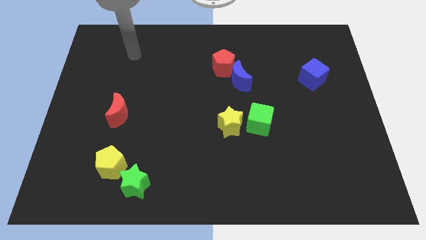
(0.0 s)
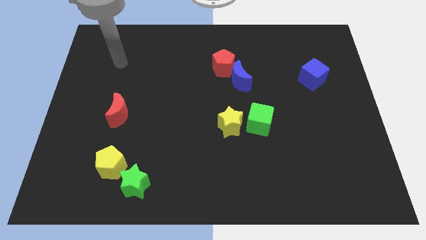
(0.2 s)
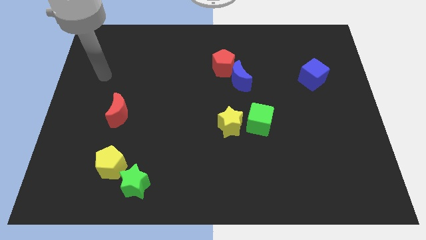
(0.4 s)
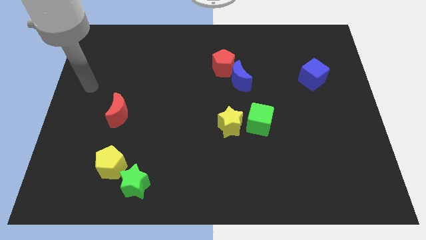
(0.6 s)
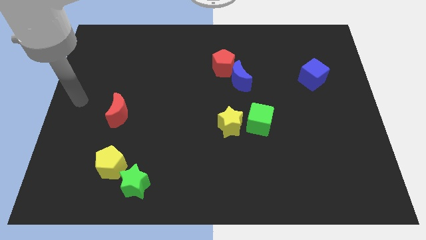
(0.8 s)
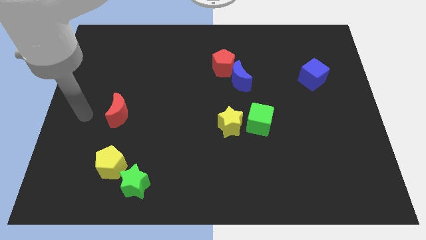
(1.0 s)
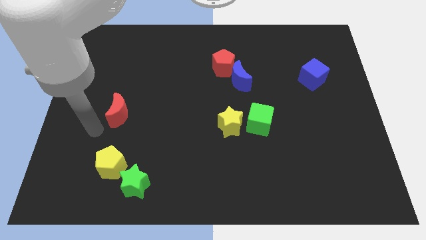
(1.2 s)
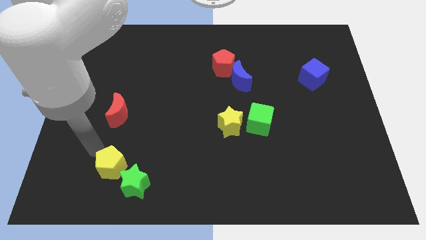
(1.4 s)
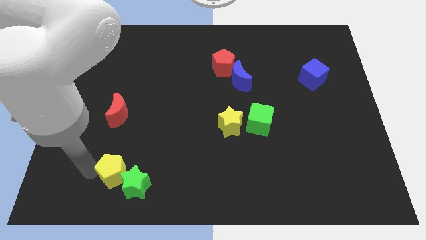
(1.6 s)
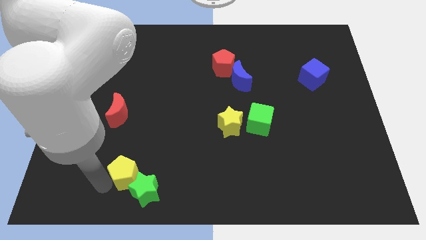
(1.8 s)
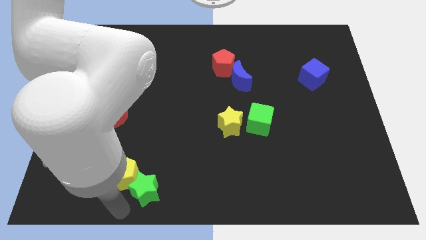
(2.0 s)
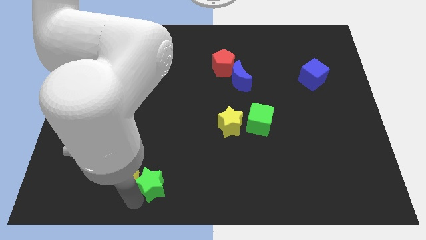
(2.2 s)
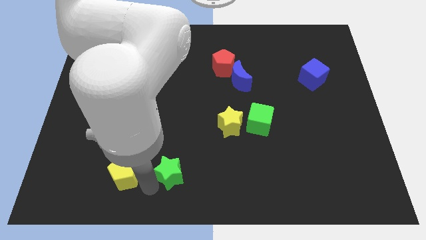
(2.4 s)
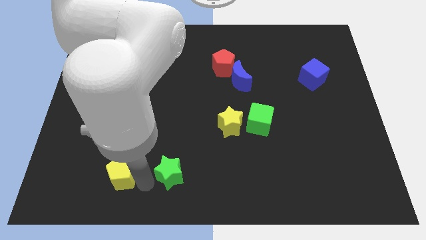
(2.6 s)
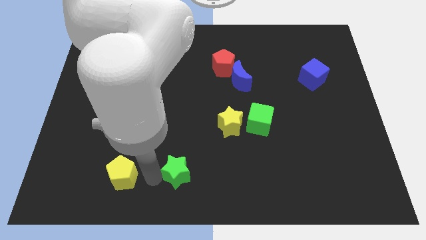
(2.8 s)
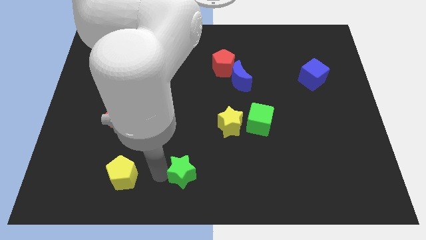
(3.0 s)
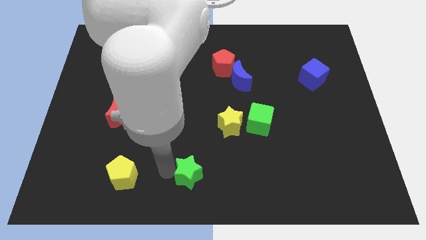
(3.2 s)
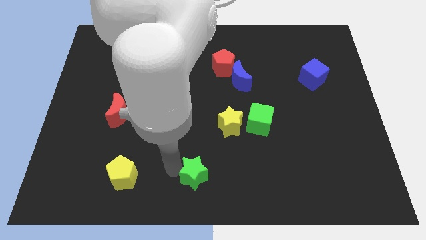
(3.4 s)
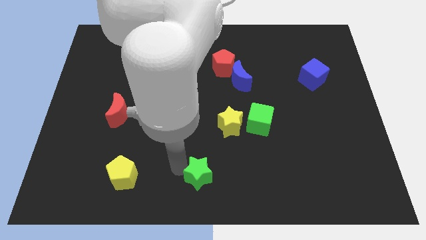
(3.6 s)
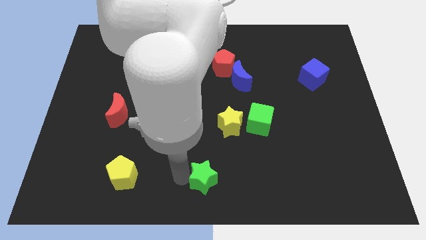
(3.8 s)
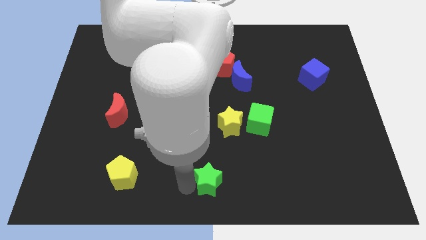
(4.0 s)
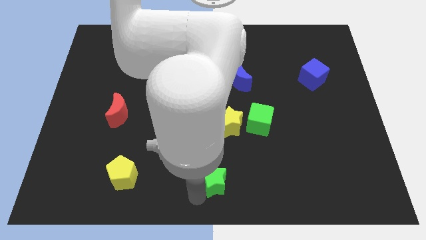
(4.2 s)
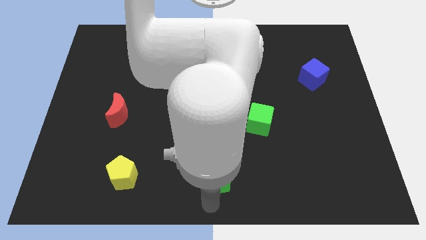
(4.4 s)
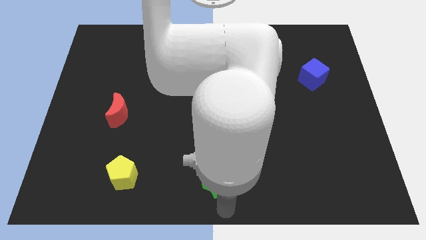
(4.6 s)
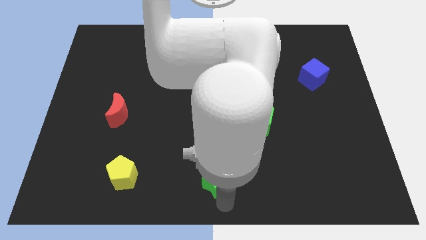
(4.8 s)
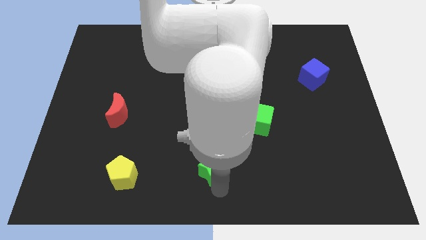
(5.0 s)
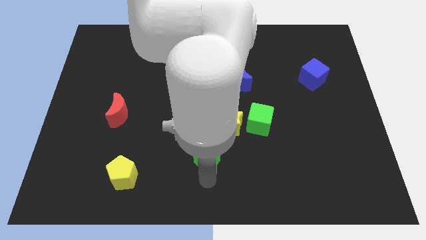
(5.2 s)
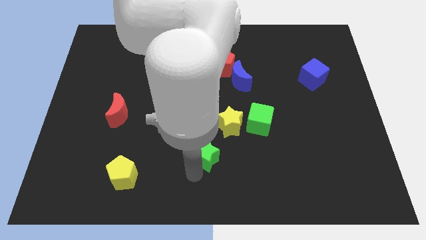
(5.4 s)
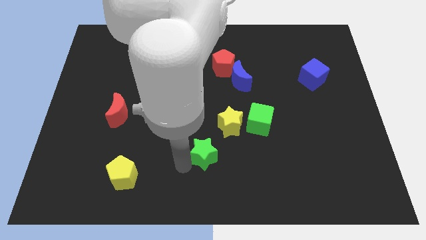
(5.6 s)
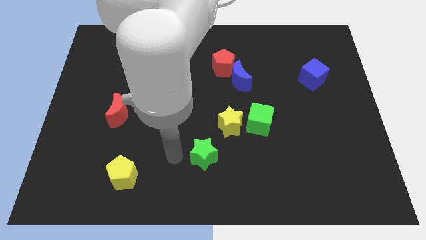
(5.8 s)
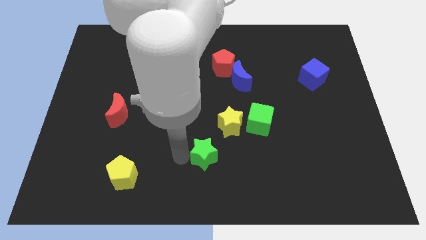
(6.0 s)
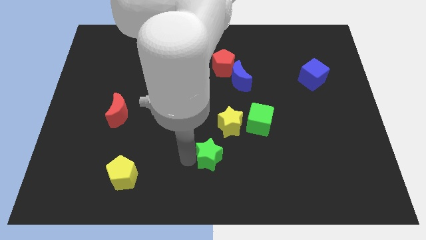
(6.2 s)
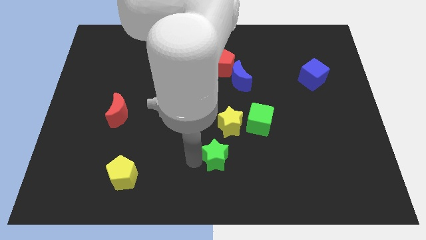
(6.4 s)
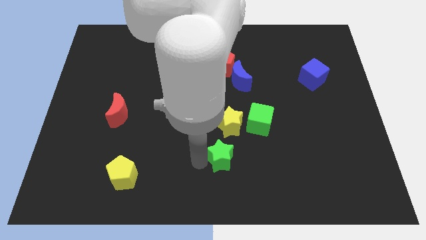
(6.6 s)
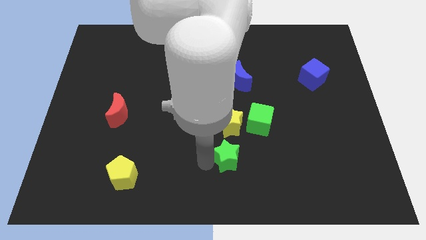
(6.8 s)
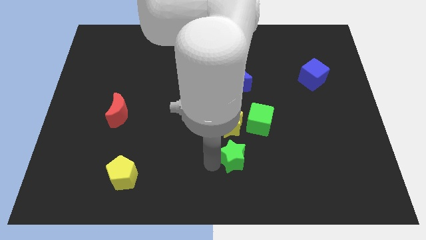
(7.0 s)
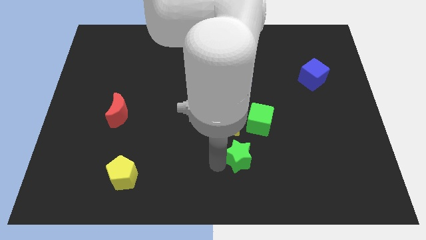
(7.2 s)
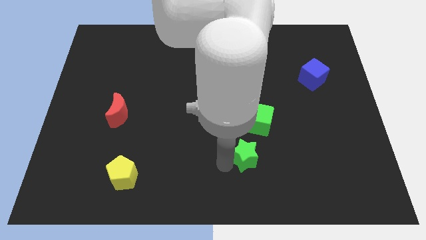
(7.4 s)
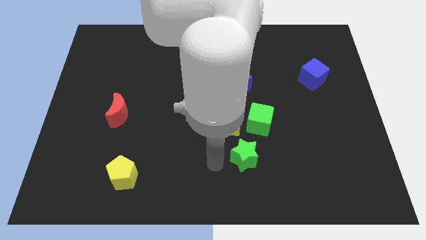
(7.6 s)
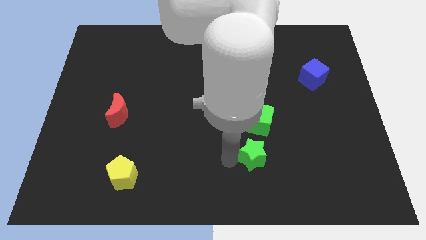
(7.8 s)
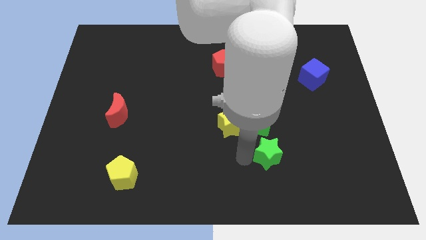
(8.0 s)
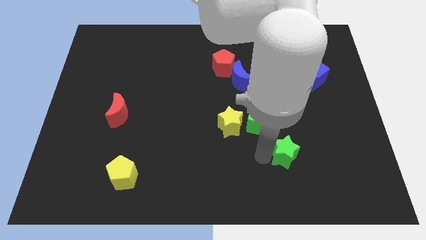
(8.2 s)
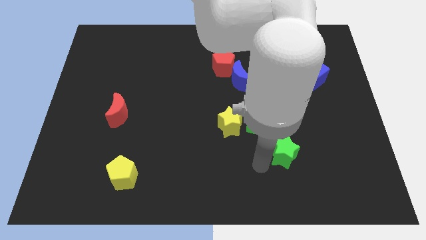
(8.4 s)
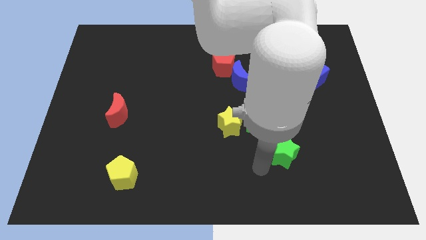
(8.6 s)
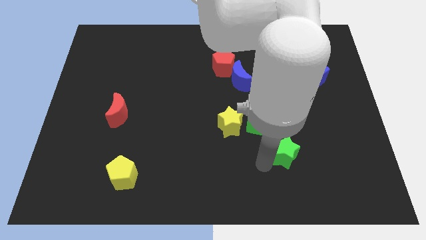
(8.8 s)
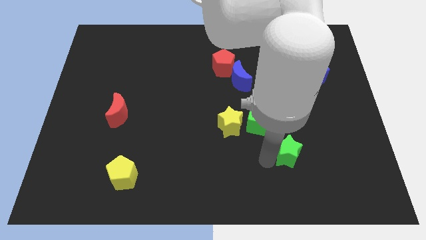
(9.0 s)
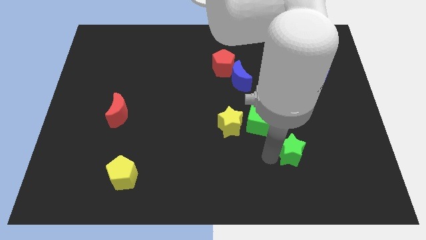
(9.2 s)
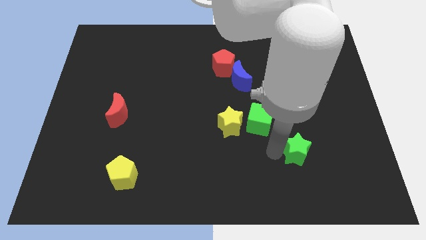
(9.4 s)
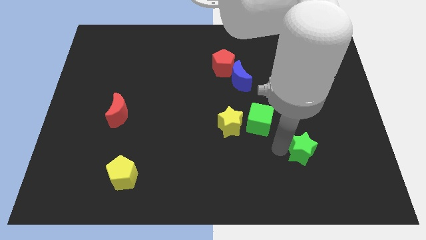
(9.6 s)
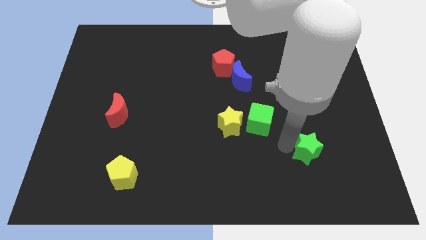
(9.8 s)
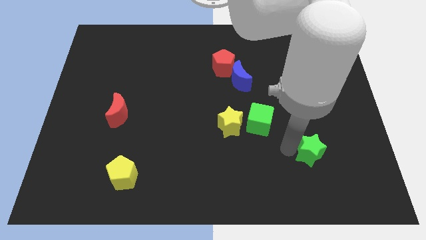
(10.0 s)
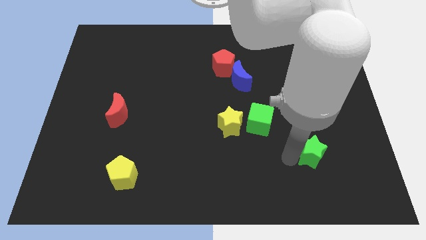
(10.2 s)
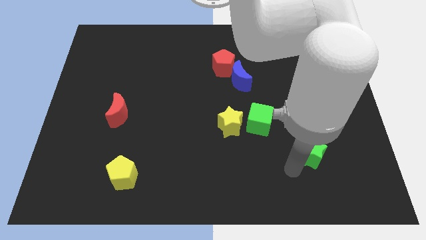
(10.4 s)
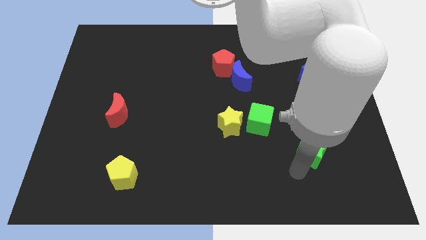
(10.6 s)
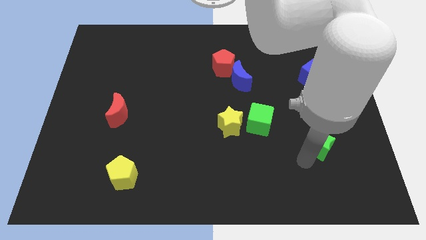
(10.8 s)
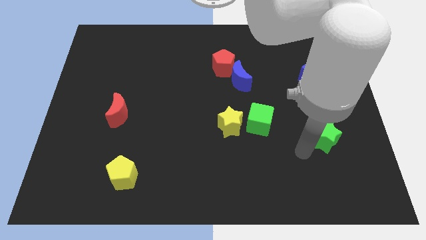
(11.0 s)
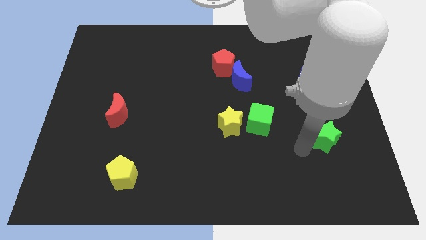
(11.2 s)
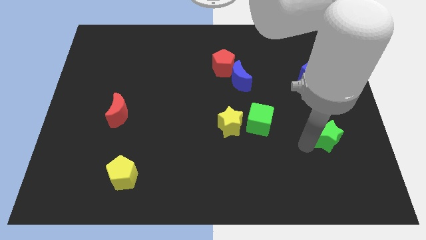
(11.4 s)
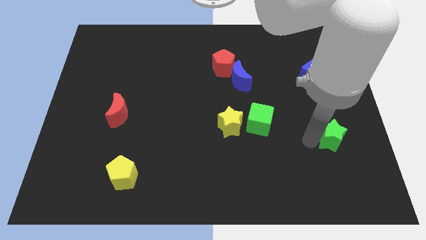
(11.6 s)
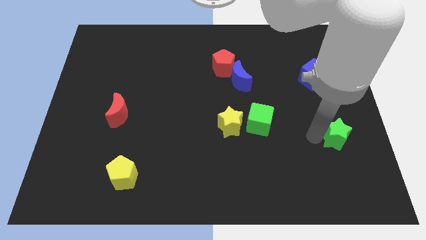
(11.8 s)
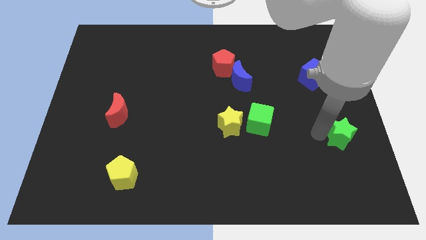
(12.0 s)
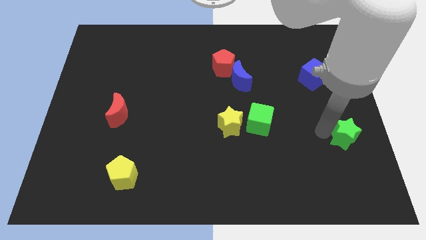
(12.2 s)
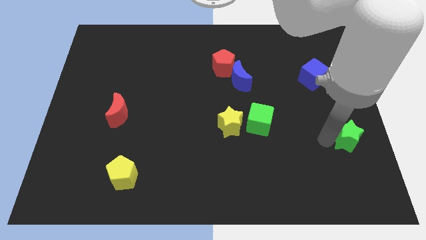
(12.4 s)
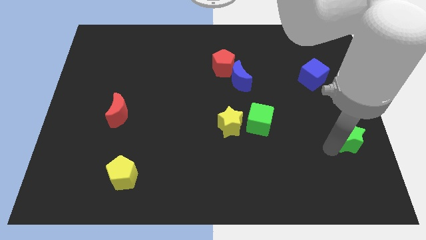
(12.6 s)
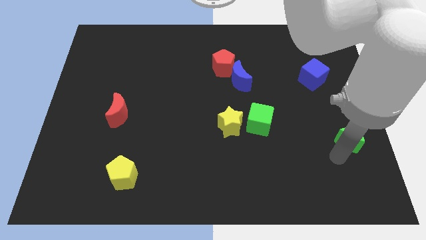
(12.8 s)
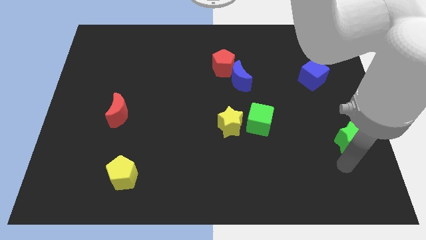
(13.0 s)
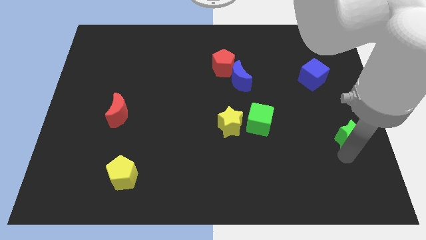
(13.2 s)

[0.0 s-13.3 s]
push the green star to the center right

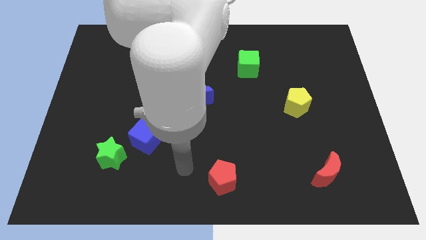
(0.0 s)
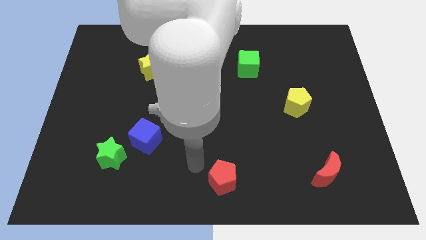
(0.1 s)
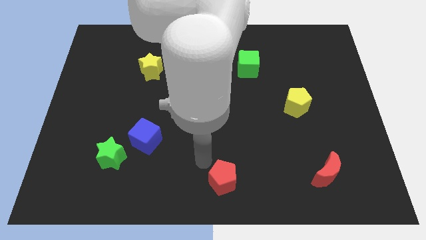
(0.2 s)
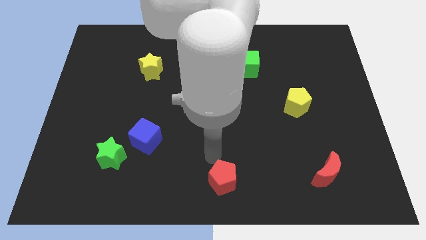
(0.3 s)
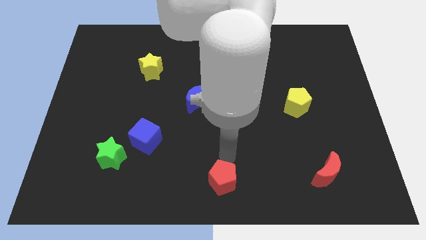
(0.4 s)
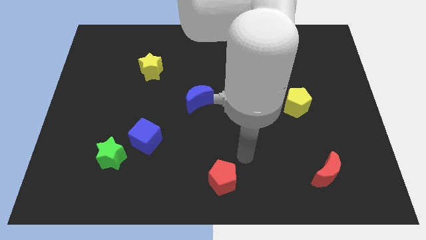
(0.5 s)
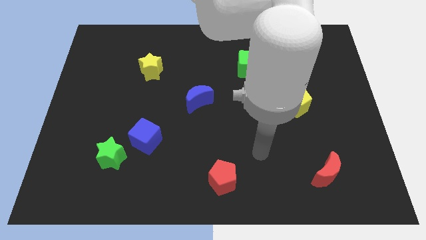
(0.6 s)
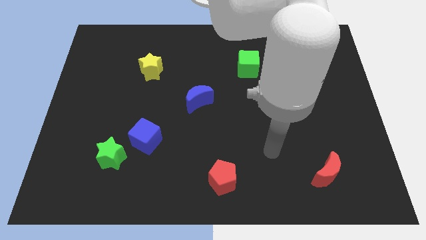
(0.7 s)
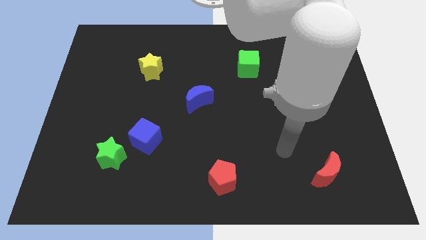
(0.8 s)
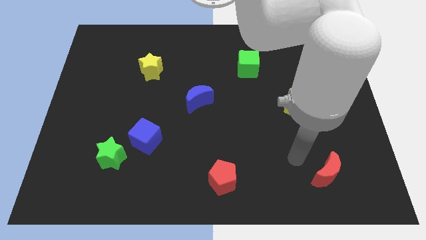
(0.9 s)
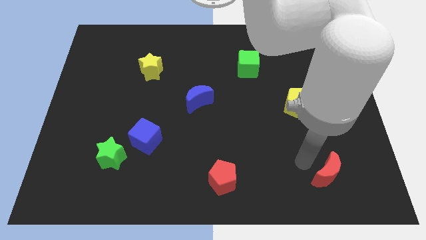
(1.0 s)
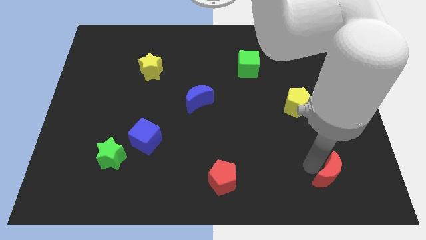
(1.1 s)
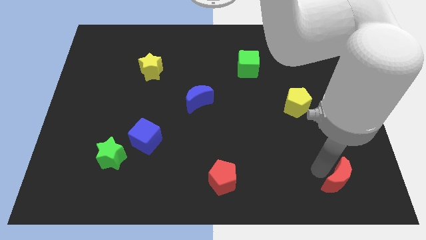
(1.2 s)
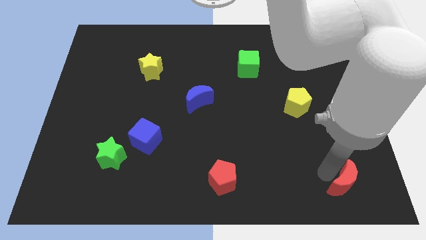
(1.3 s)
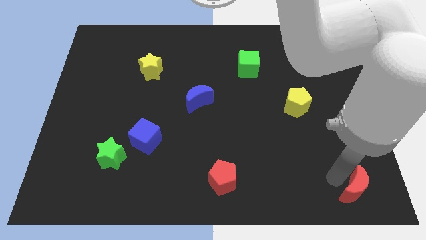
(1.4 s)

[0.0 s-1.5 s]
put the red moon to the bottom right of the board
